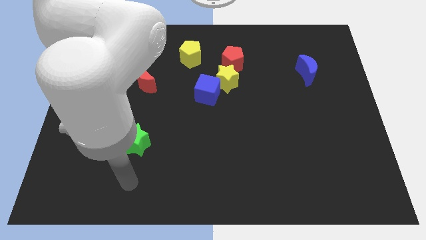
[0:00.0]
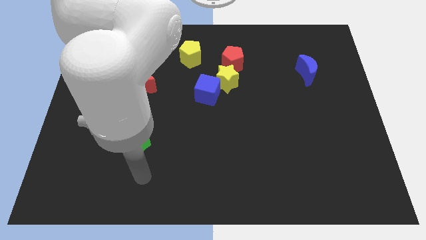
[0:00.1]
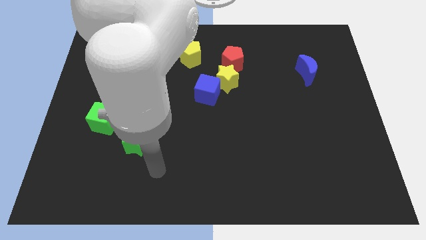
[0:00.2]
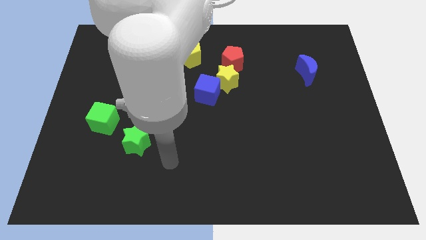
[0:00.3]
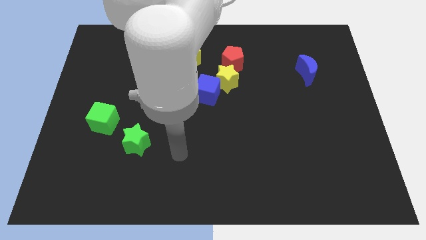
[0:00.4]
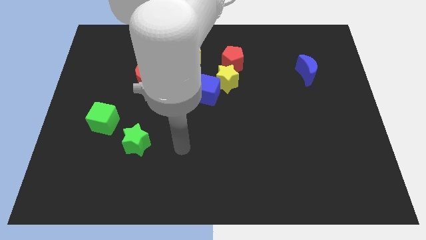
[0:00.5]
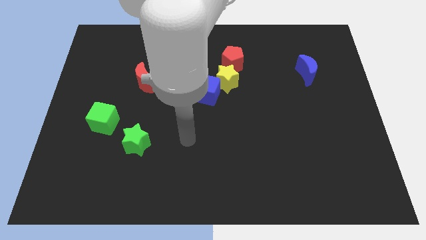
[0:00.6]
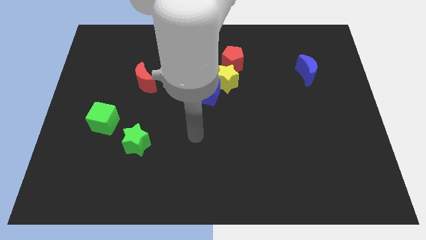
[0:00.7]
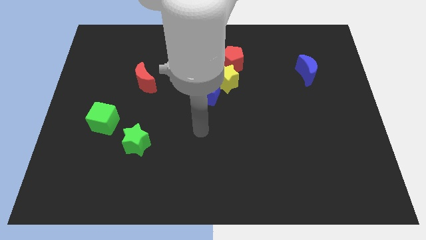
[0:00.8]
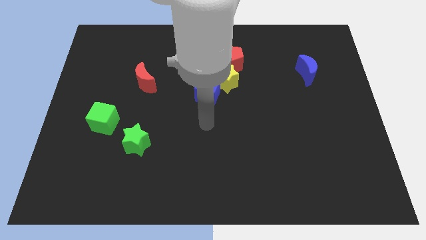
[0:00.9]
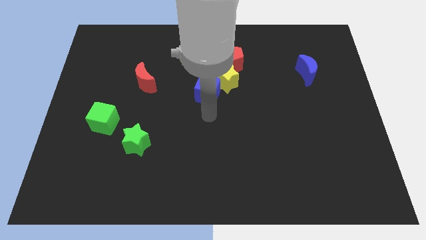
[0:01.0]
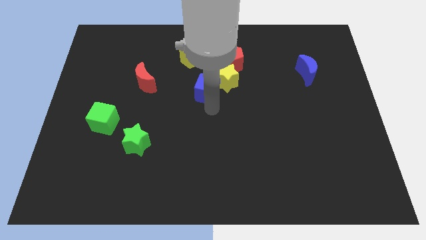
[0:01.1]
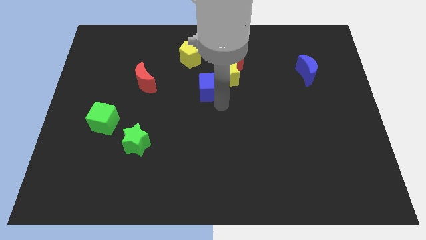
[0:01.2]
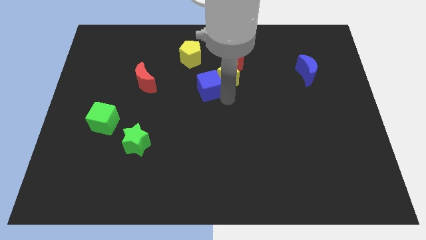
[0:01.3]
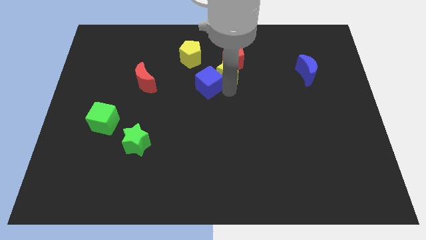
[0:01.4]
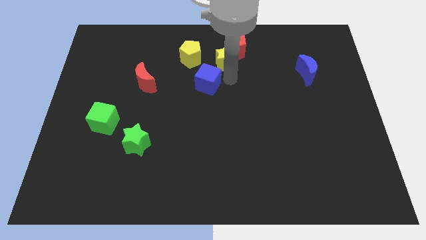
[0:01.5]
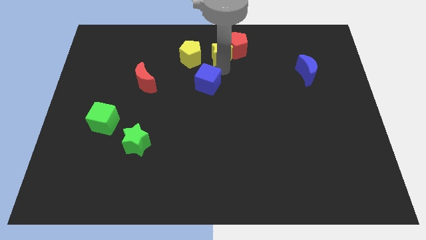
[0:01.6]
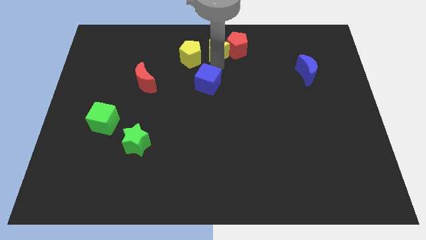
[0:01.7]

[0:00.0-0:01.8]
separate the blue cube from the yellow star

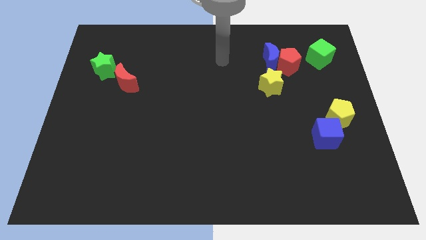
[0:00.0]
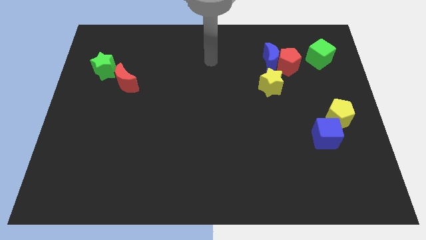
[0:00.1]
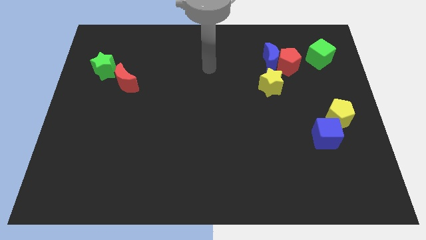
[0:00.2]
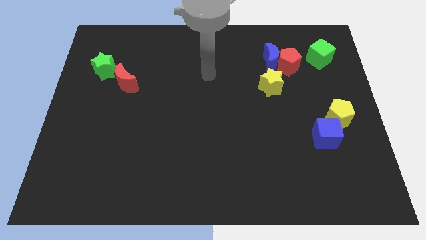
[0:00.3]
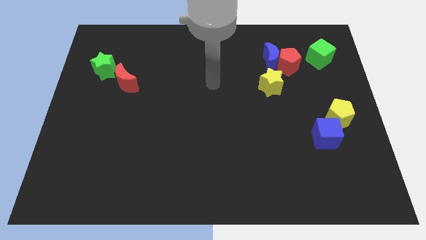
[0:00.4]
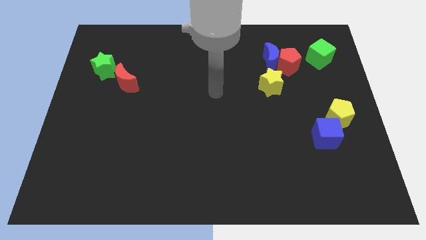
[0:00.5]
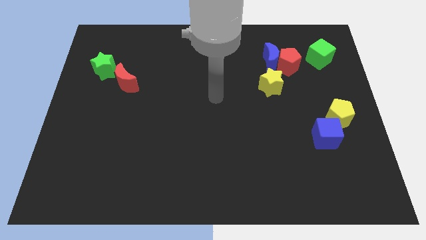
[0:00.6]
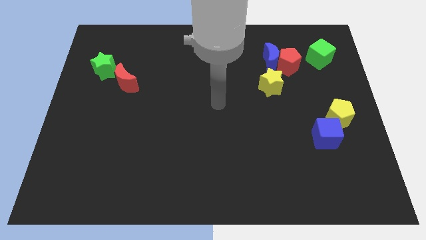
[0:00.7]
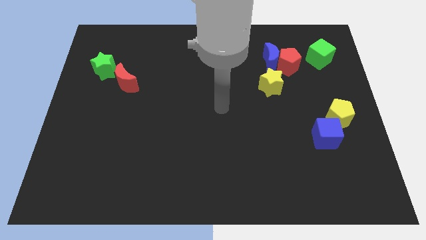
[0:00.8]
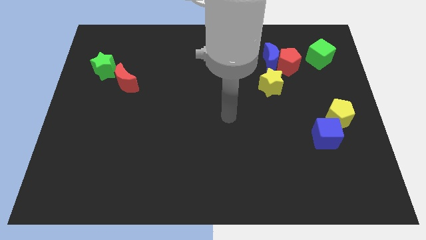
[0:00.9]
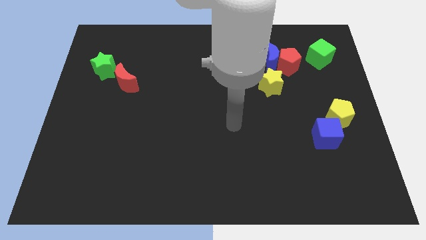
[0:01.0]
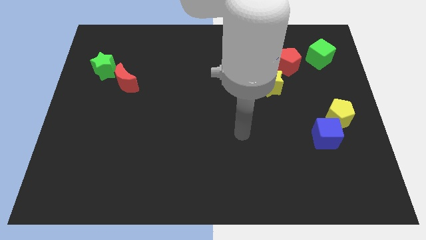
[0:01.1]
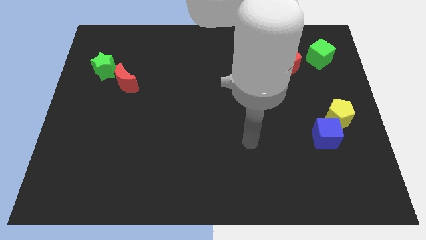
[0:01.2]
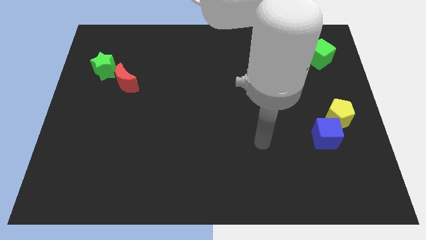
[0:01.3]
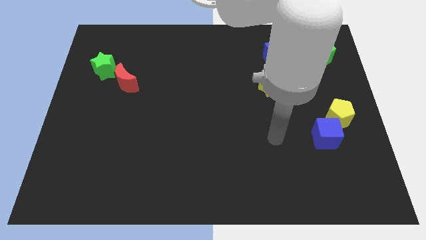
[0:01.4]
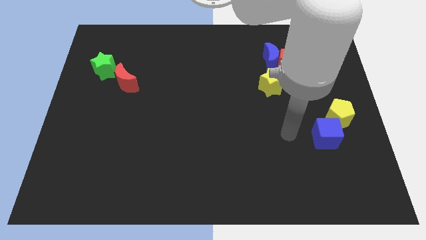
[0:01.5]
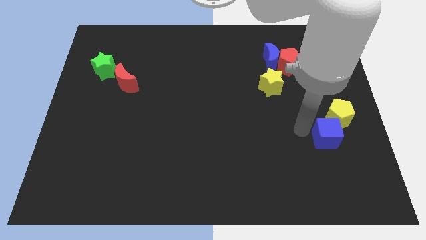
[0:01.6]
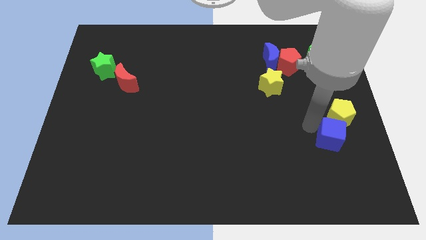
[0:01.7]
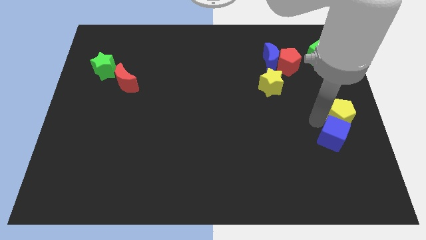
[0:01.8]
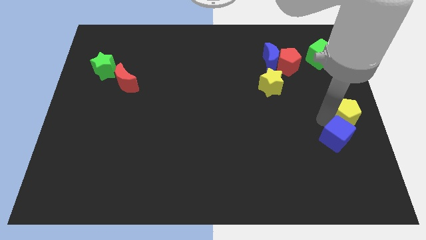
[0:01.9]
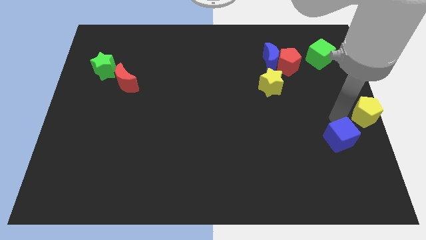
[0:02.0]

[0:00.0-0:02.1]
separate the blue cube from the yellow pentagon

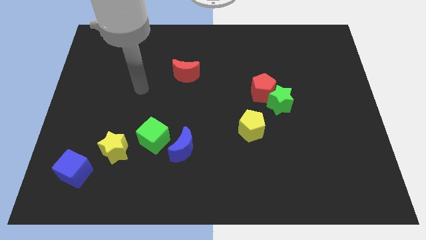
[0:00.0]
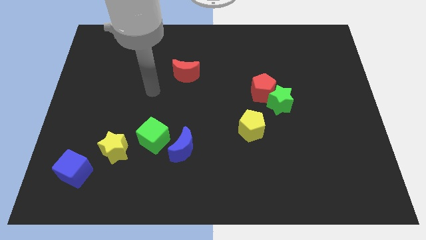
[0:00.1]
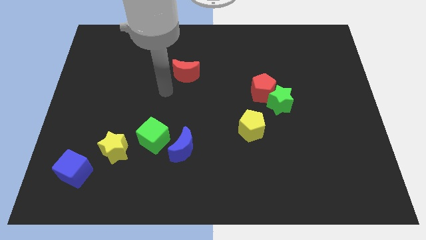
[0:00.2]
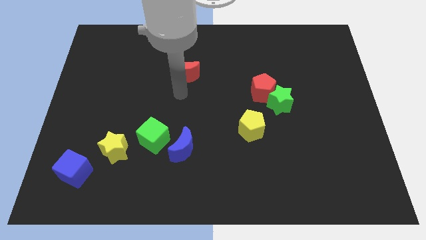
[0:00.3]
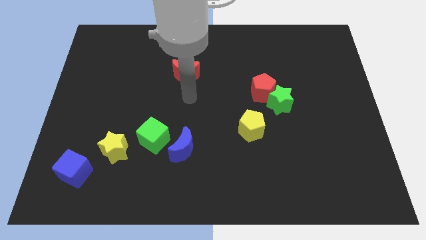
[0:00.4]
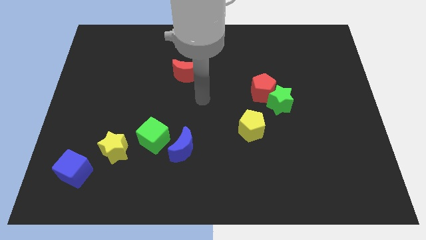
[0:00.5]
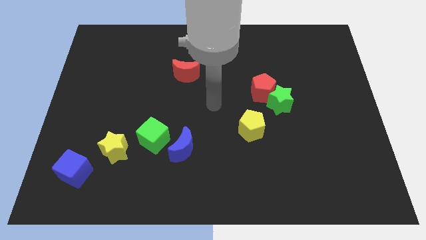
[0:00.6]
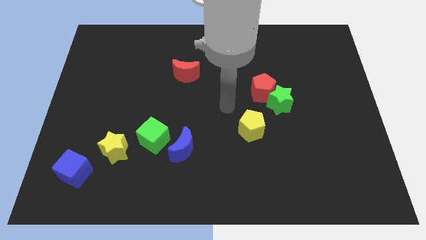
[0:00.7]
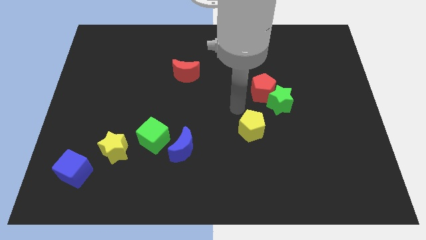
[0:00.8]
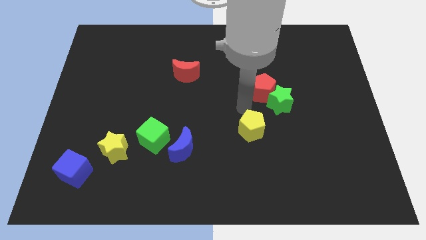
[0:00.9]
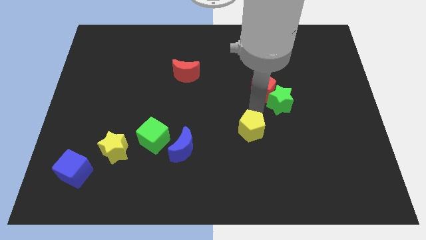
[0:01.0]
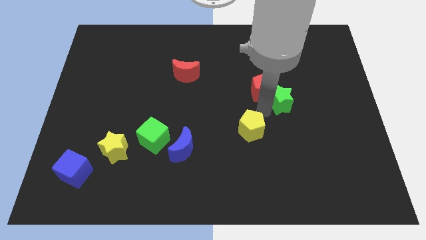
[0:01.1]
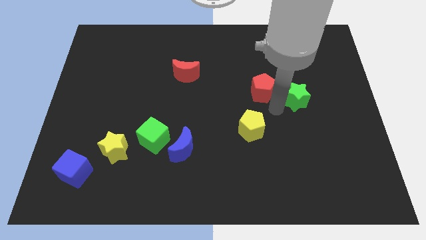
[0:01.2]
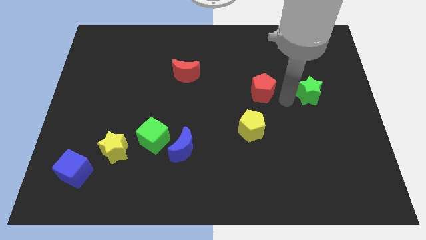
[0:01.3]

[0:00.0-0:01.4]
separate the red pentagon from the green star

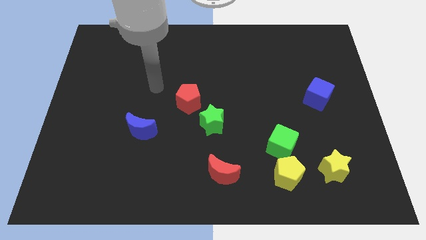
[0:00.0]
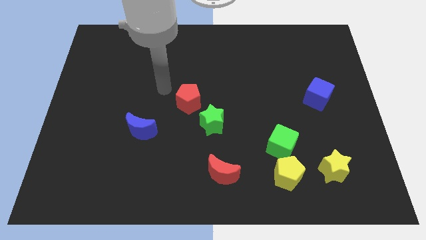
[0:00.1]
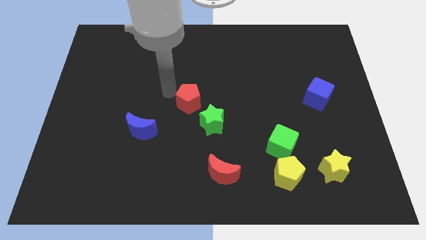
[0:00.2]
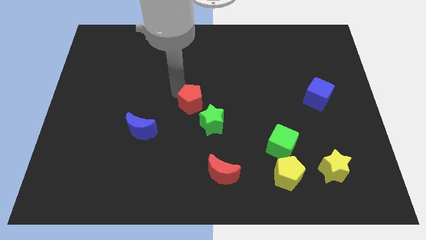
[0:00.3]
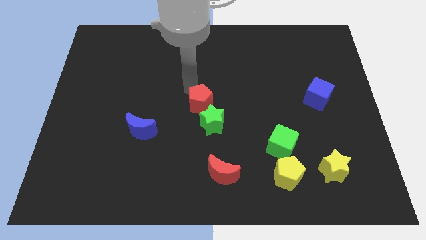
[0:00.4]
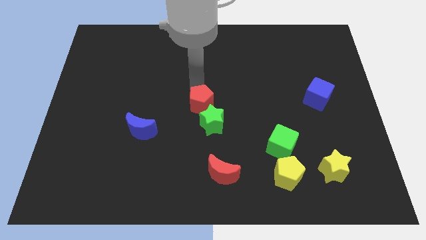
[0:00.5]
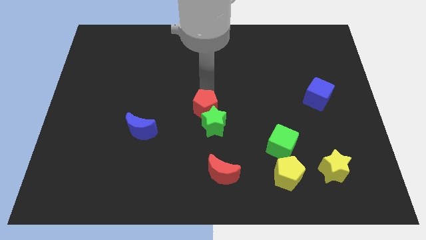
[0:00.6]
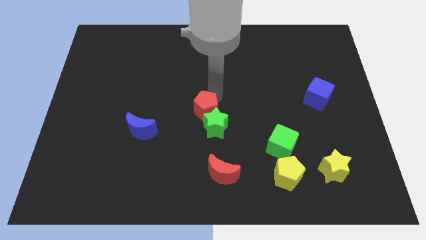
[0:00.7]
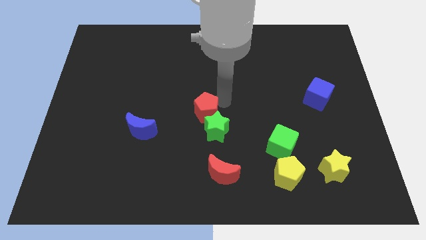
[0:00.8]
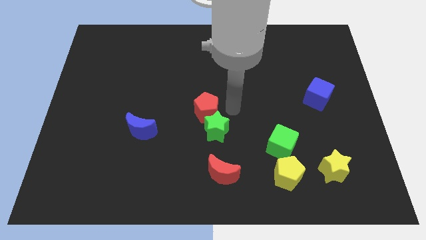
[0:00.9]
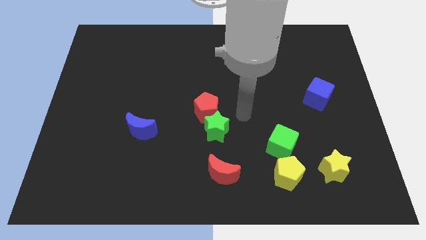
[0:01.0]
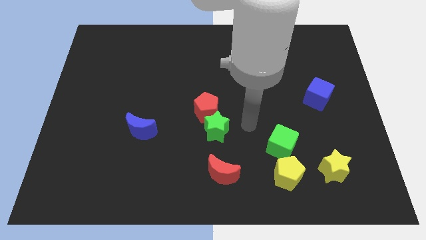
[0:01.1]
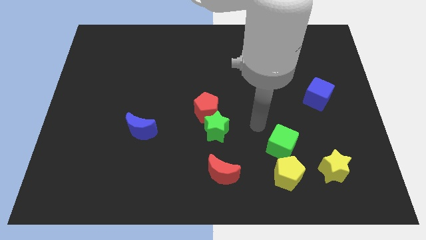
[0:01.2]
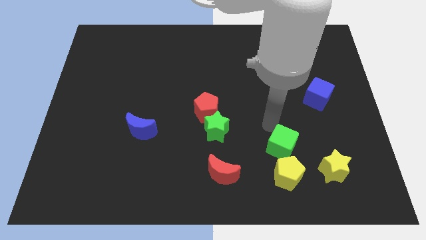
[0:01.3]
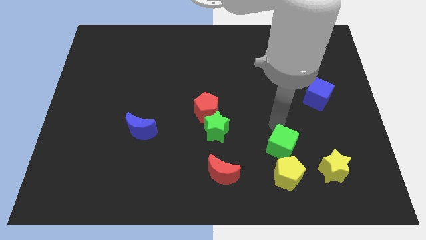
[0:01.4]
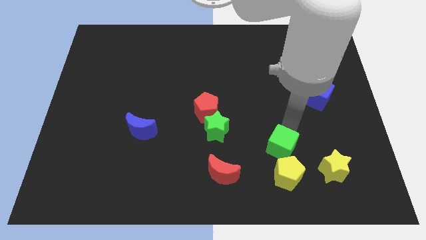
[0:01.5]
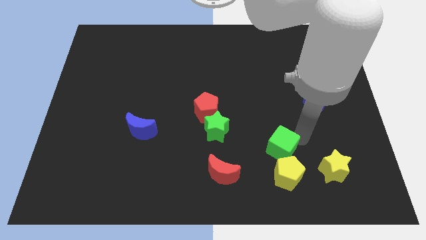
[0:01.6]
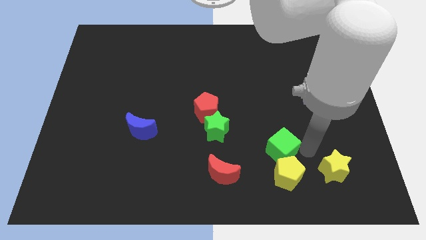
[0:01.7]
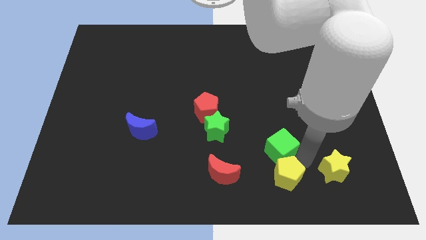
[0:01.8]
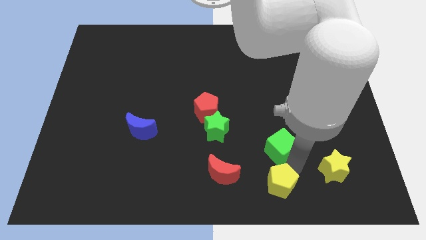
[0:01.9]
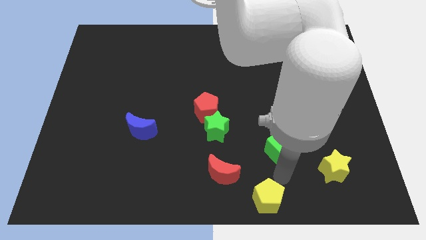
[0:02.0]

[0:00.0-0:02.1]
separate the green cube from the yellow pentagon

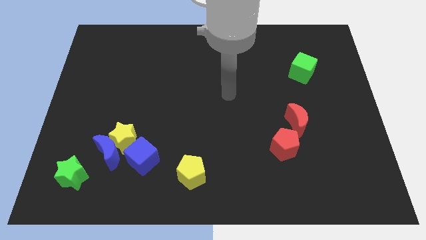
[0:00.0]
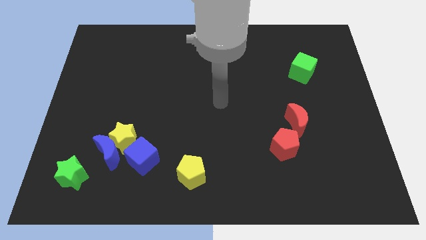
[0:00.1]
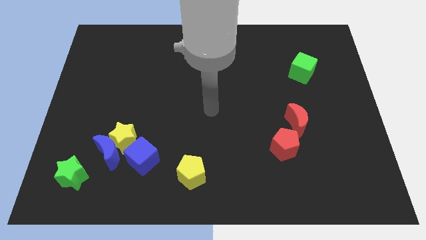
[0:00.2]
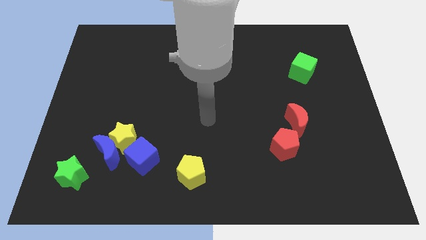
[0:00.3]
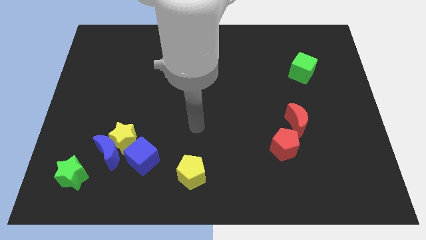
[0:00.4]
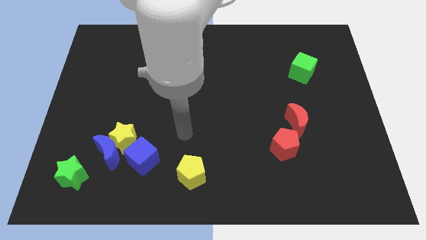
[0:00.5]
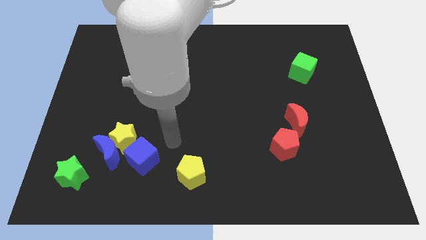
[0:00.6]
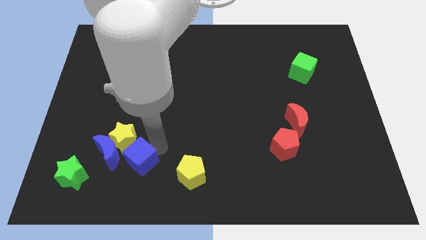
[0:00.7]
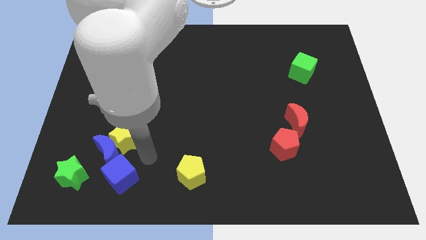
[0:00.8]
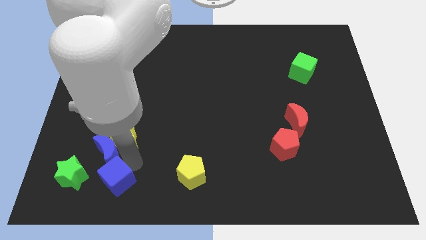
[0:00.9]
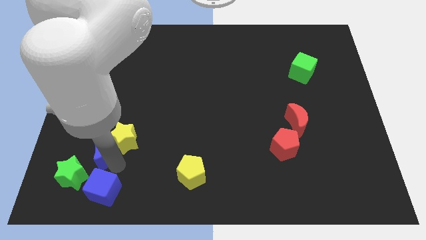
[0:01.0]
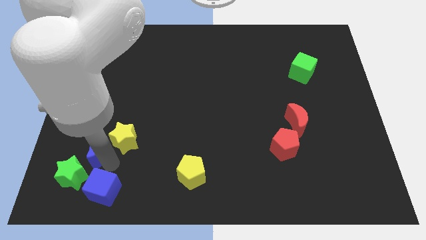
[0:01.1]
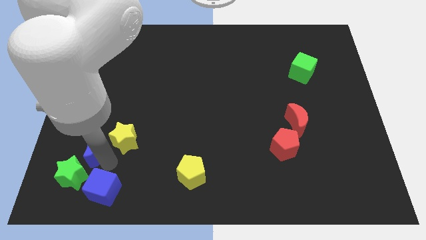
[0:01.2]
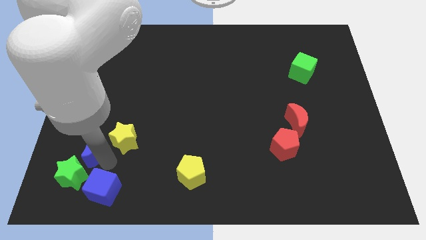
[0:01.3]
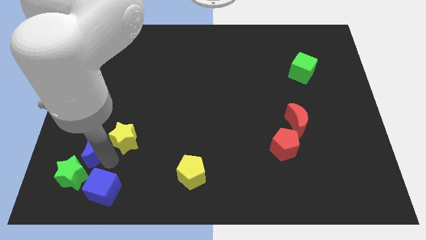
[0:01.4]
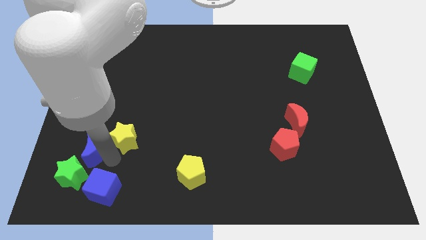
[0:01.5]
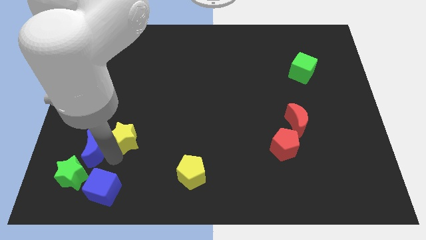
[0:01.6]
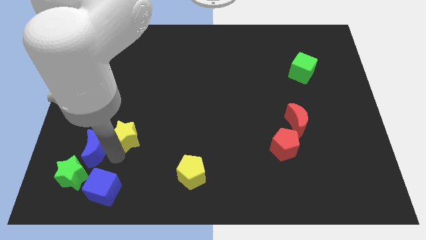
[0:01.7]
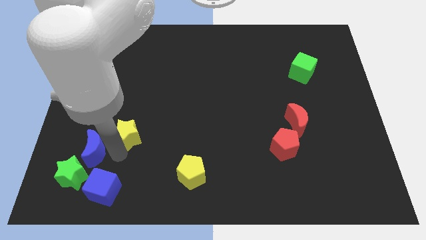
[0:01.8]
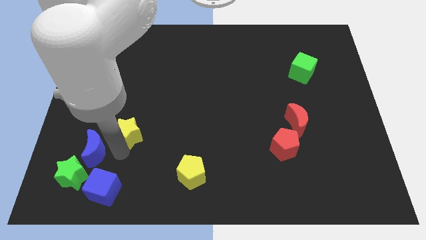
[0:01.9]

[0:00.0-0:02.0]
separate the yellow star from the blue moon and blue cube
